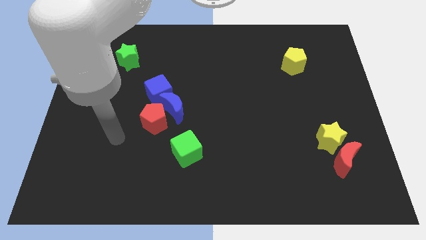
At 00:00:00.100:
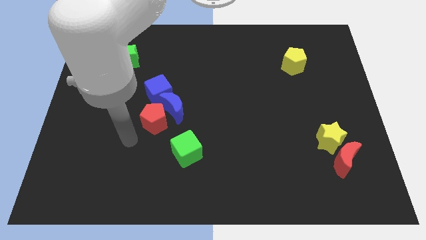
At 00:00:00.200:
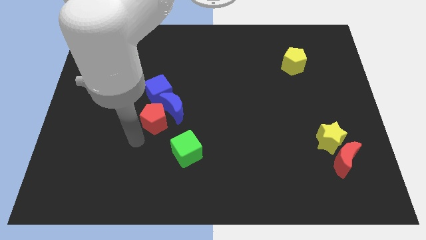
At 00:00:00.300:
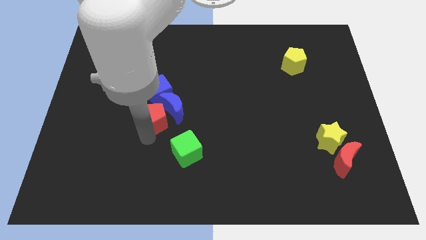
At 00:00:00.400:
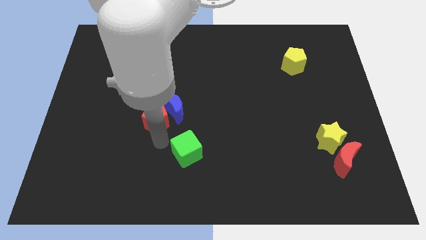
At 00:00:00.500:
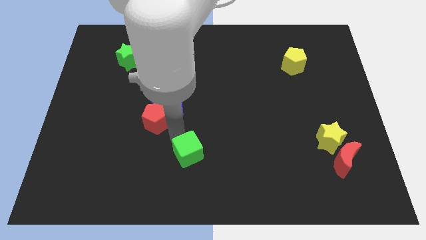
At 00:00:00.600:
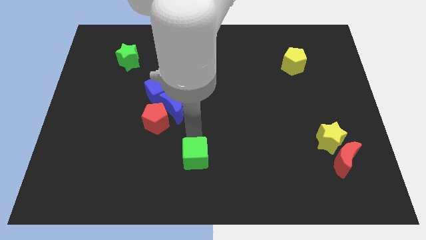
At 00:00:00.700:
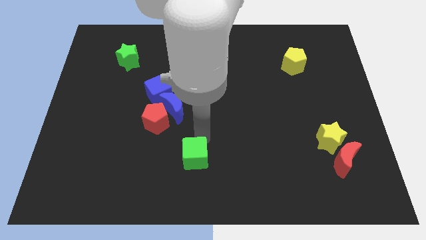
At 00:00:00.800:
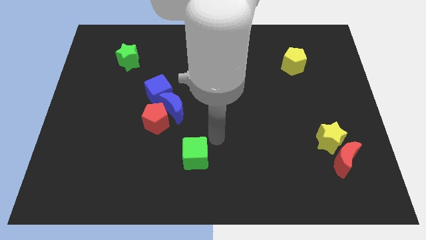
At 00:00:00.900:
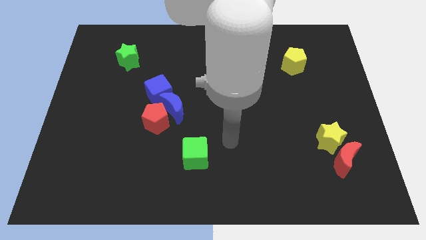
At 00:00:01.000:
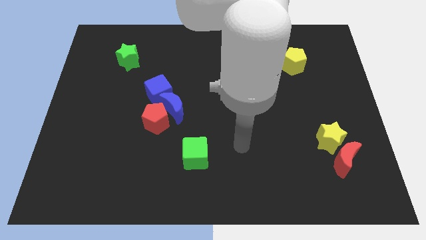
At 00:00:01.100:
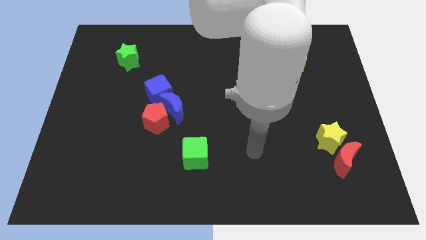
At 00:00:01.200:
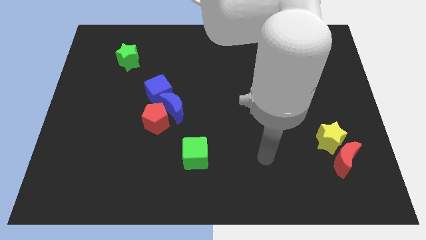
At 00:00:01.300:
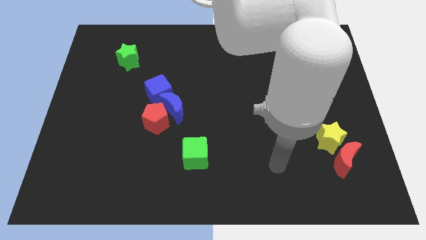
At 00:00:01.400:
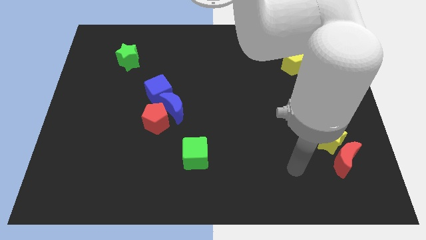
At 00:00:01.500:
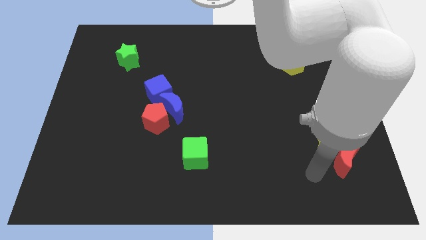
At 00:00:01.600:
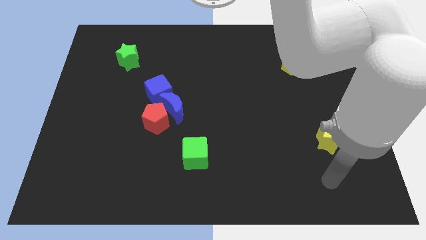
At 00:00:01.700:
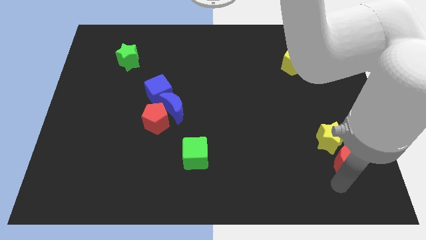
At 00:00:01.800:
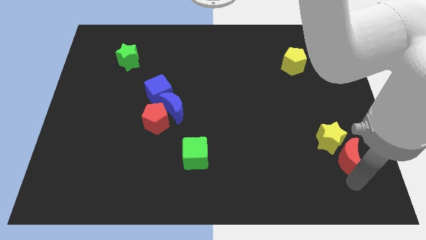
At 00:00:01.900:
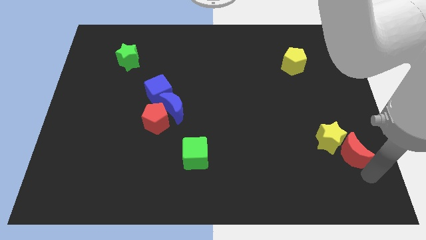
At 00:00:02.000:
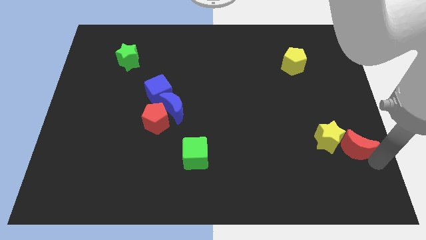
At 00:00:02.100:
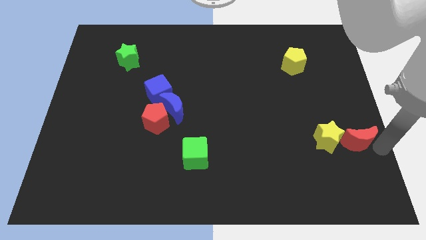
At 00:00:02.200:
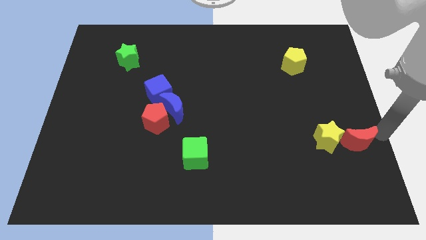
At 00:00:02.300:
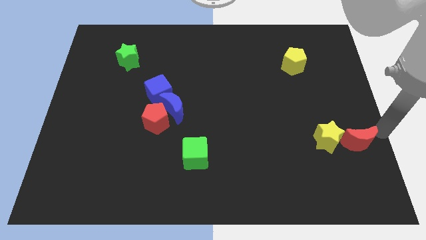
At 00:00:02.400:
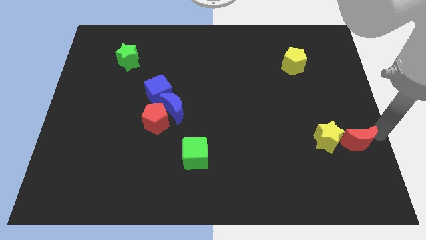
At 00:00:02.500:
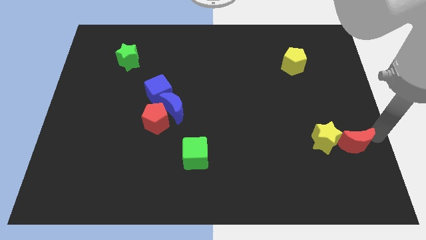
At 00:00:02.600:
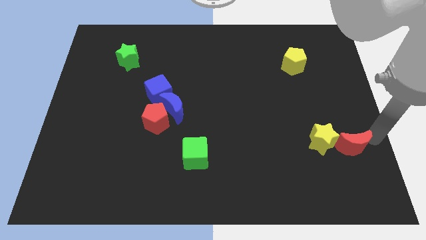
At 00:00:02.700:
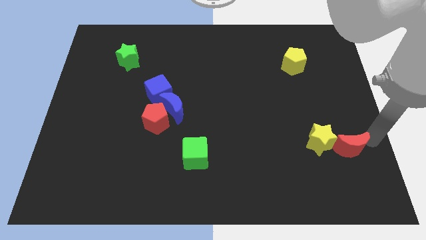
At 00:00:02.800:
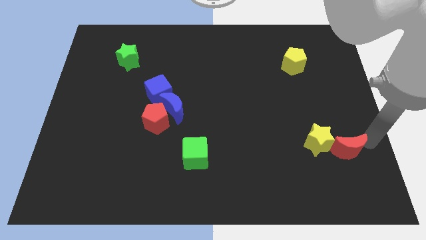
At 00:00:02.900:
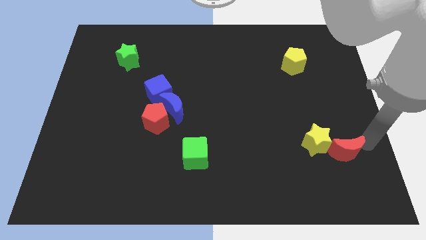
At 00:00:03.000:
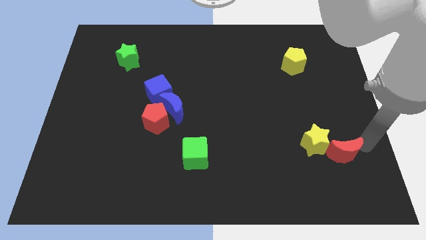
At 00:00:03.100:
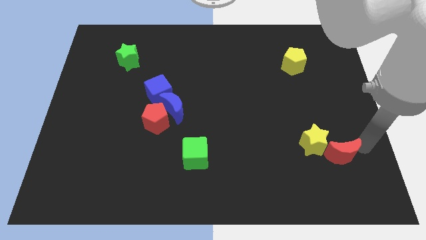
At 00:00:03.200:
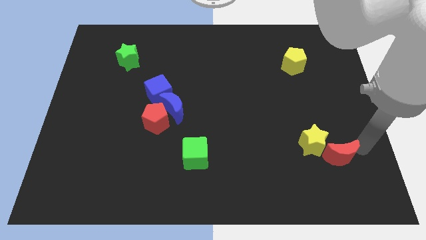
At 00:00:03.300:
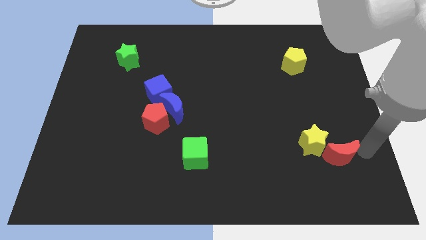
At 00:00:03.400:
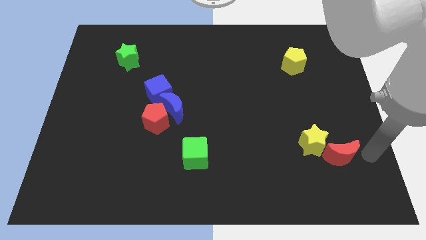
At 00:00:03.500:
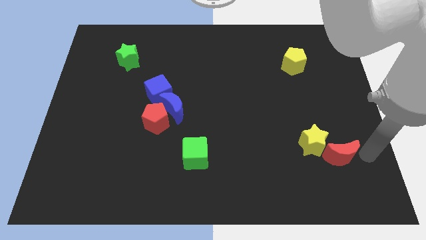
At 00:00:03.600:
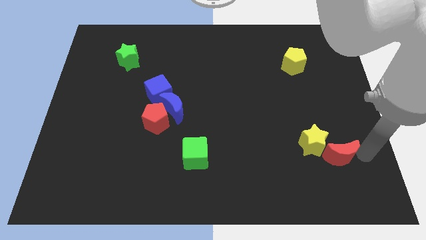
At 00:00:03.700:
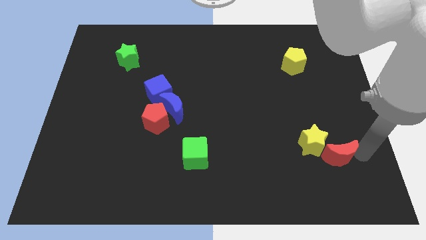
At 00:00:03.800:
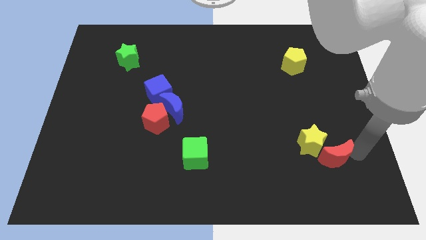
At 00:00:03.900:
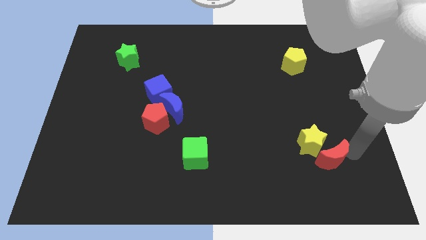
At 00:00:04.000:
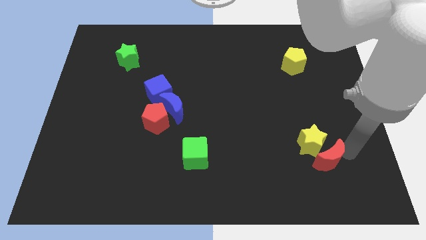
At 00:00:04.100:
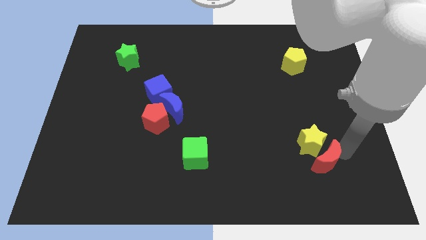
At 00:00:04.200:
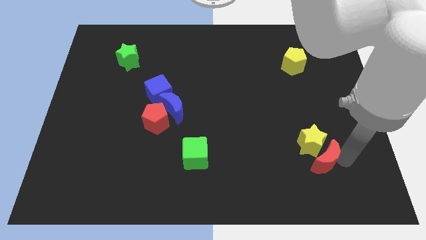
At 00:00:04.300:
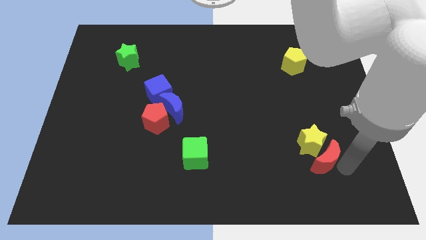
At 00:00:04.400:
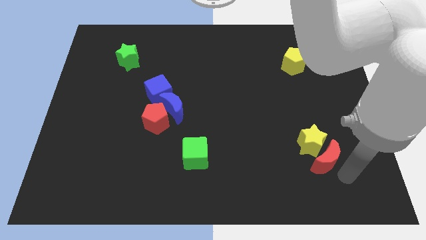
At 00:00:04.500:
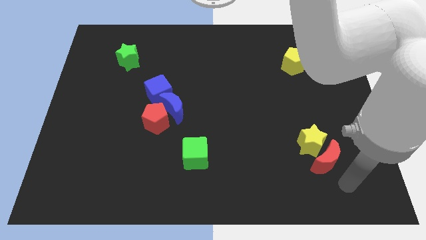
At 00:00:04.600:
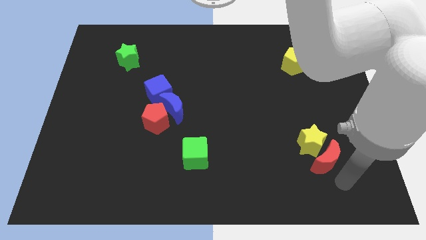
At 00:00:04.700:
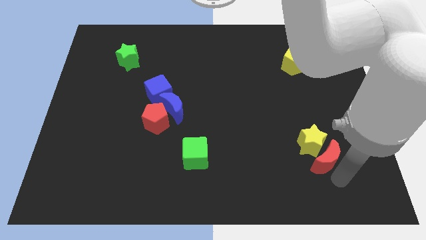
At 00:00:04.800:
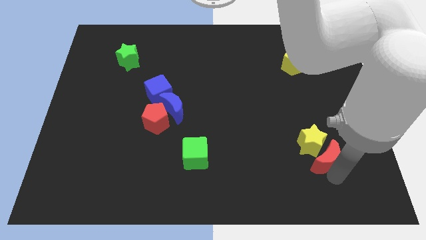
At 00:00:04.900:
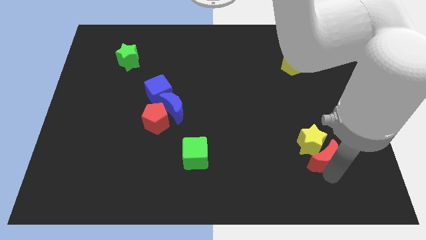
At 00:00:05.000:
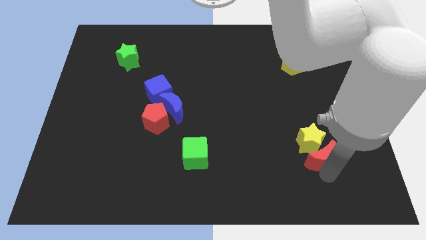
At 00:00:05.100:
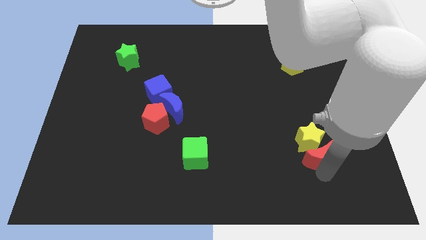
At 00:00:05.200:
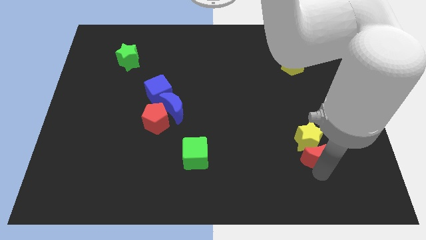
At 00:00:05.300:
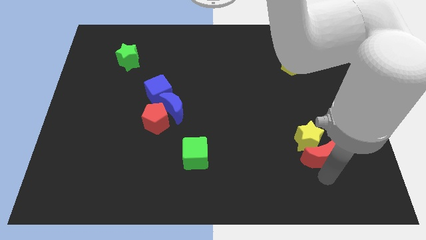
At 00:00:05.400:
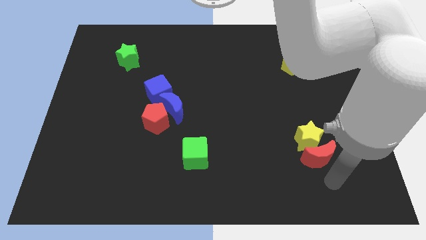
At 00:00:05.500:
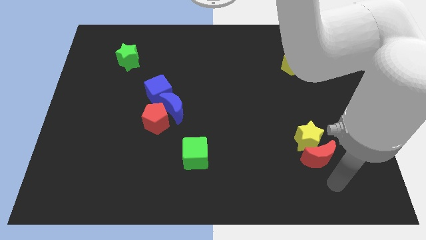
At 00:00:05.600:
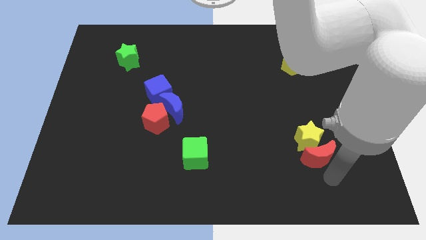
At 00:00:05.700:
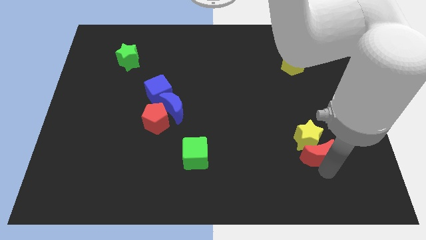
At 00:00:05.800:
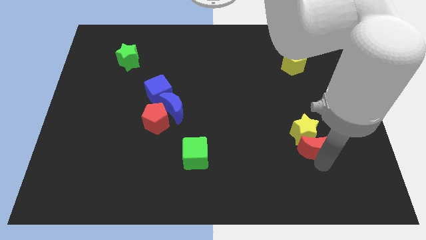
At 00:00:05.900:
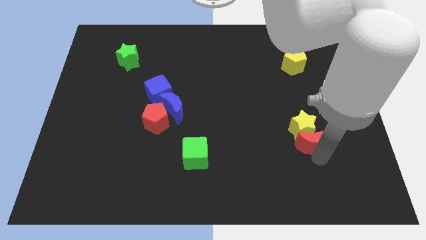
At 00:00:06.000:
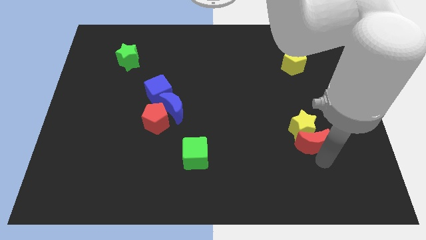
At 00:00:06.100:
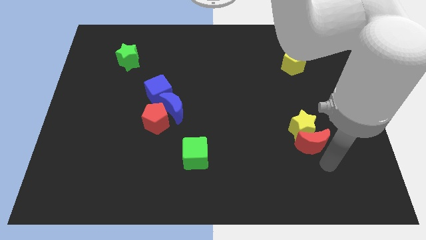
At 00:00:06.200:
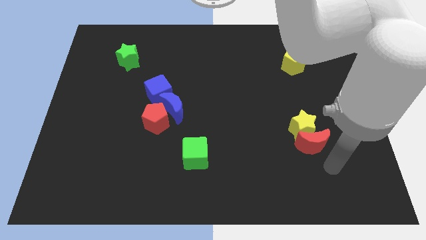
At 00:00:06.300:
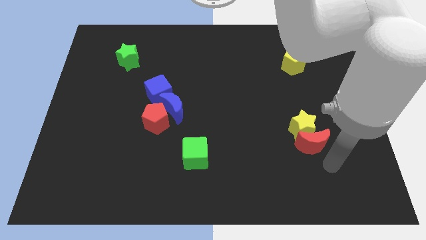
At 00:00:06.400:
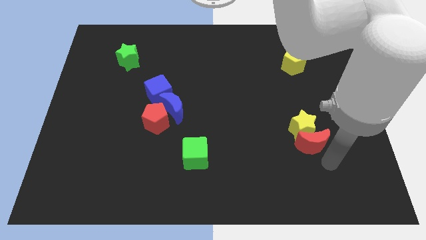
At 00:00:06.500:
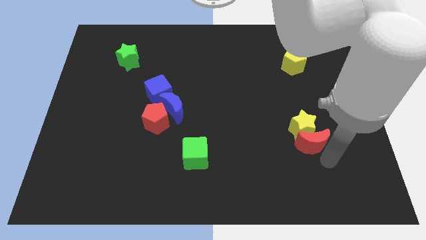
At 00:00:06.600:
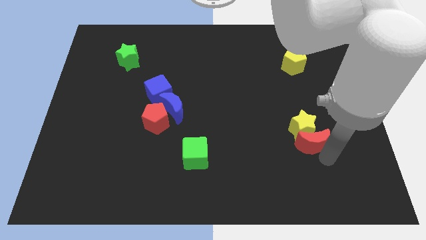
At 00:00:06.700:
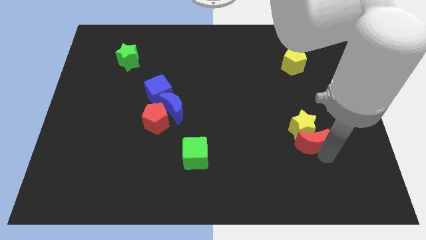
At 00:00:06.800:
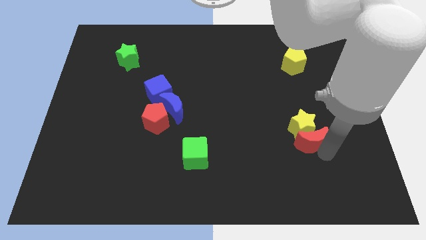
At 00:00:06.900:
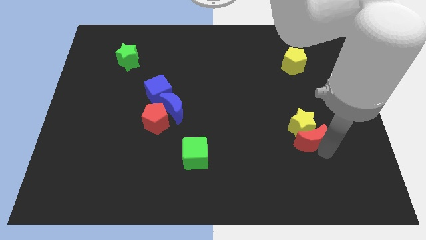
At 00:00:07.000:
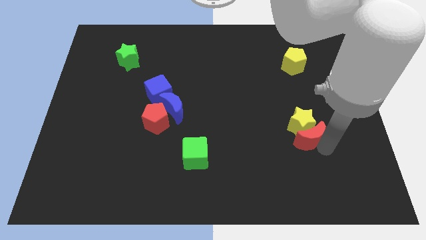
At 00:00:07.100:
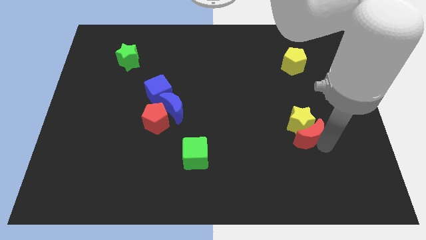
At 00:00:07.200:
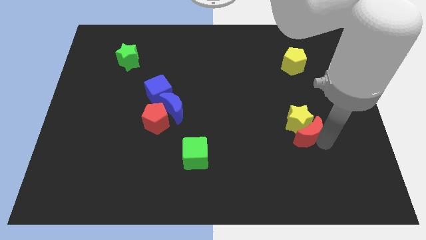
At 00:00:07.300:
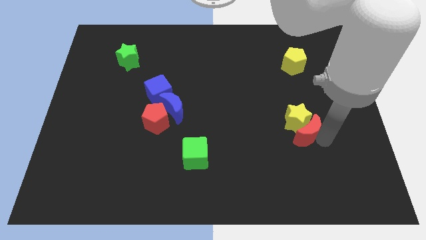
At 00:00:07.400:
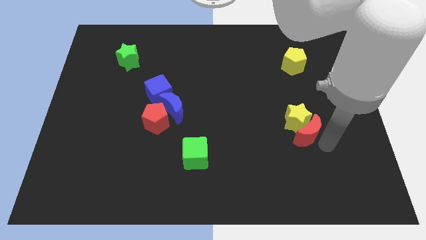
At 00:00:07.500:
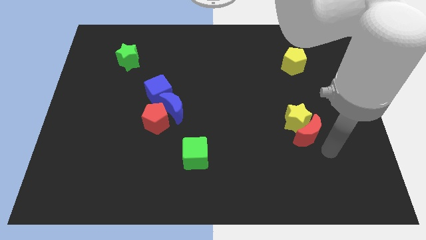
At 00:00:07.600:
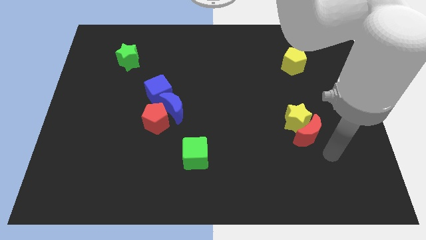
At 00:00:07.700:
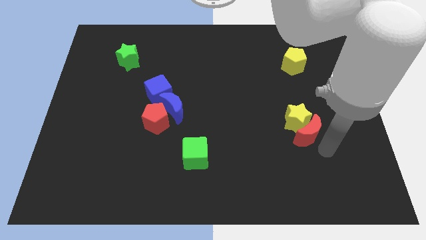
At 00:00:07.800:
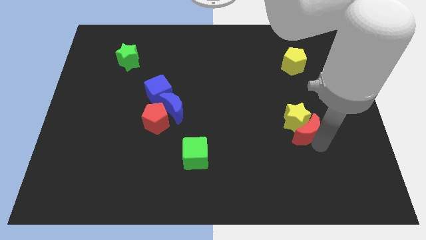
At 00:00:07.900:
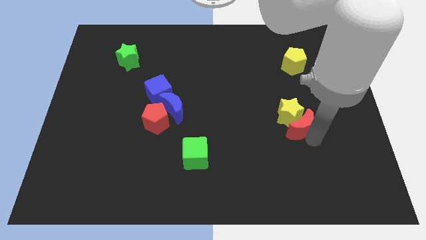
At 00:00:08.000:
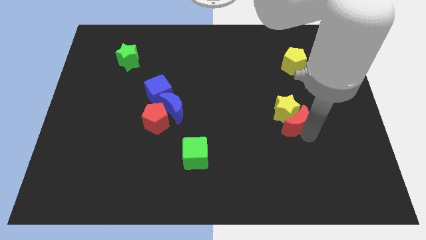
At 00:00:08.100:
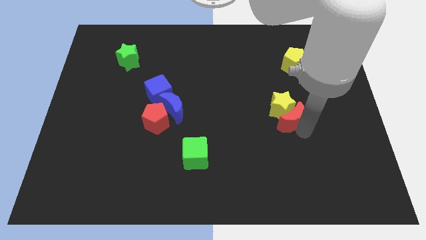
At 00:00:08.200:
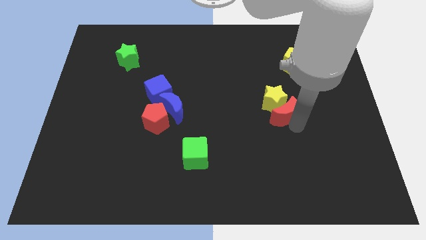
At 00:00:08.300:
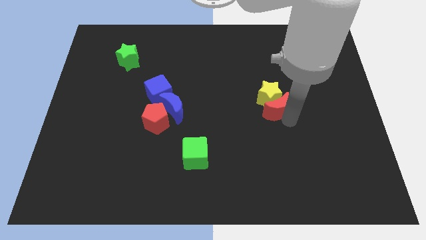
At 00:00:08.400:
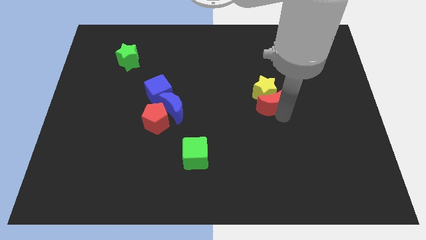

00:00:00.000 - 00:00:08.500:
slide the red moon up and to the left
